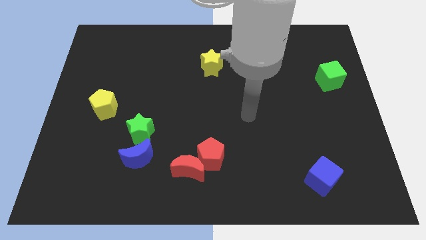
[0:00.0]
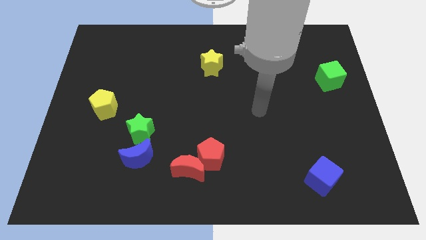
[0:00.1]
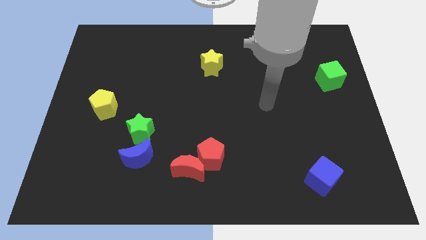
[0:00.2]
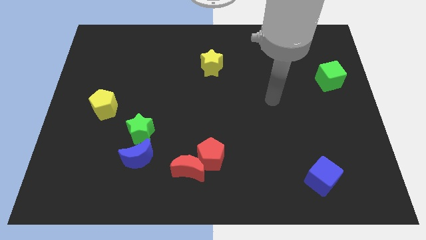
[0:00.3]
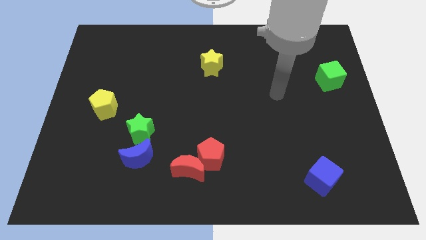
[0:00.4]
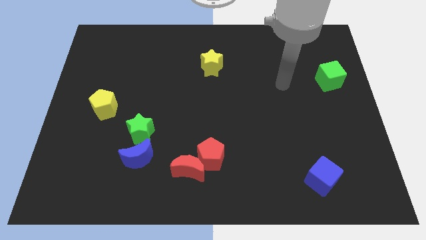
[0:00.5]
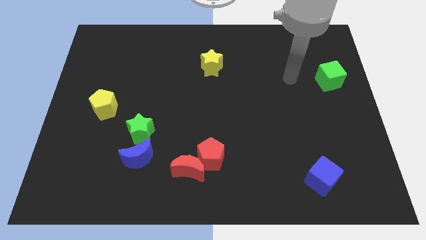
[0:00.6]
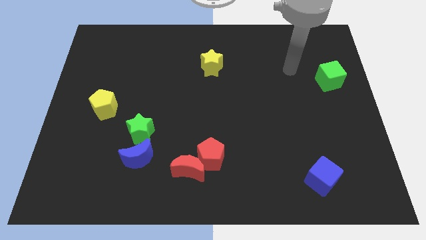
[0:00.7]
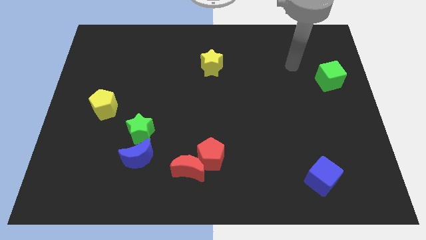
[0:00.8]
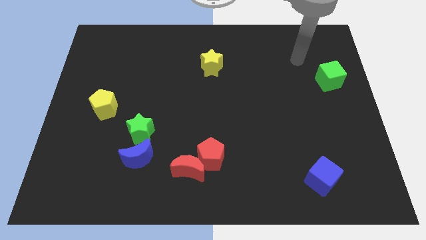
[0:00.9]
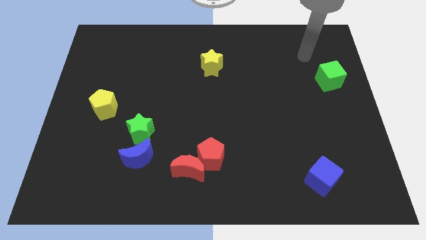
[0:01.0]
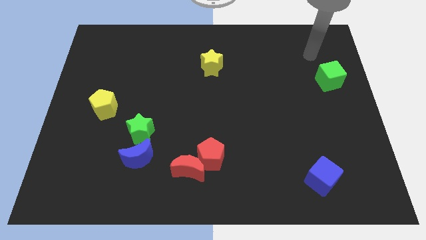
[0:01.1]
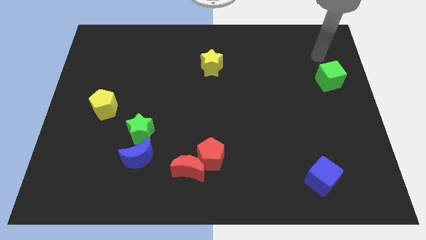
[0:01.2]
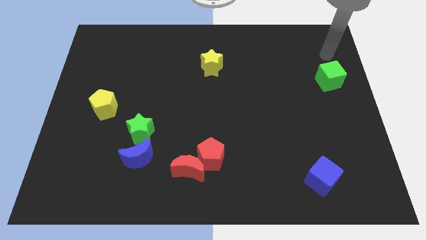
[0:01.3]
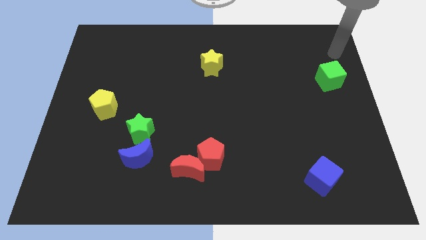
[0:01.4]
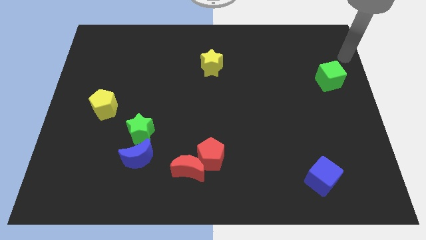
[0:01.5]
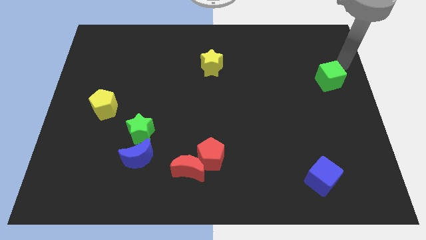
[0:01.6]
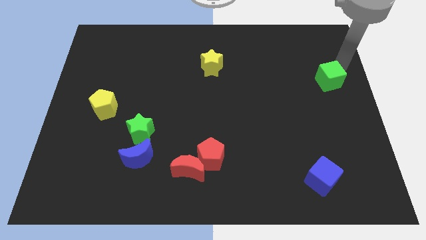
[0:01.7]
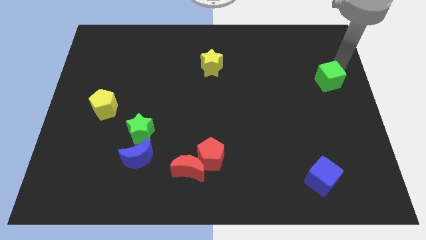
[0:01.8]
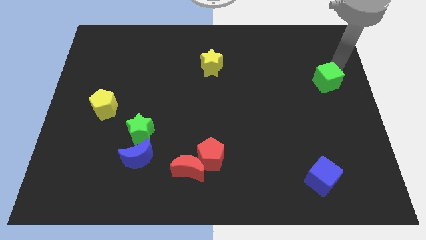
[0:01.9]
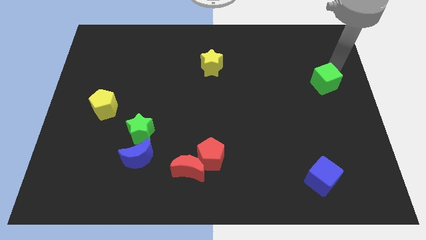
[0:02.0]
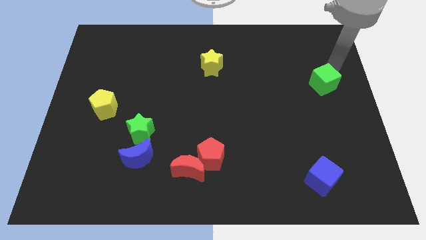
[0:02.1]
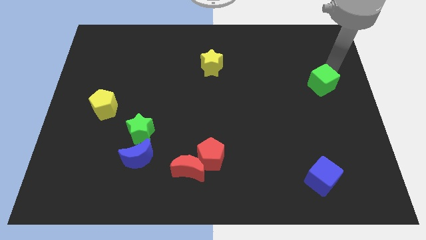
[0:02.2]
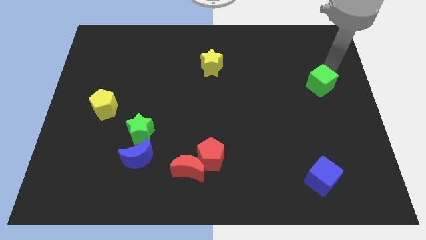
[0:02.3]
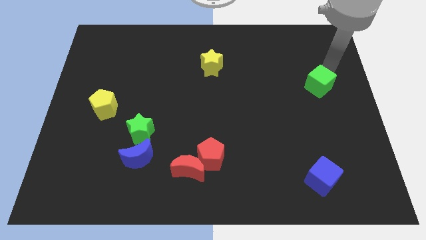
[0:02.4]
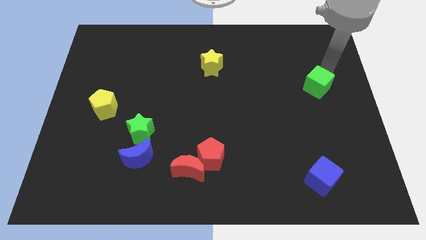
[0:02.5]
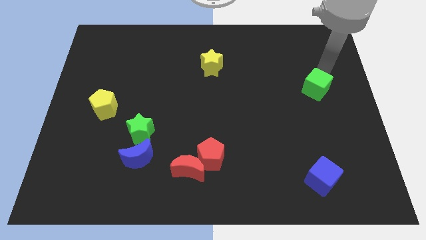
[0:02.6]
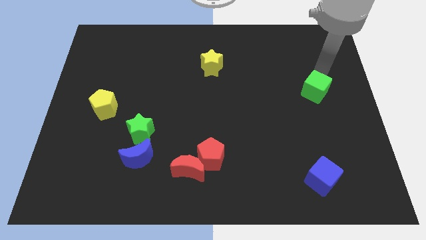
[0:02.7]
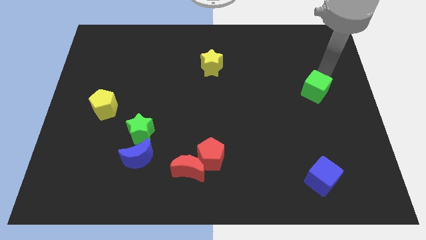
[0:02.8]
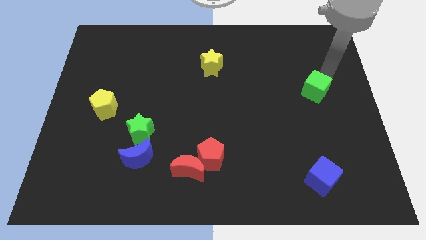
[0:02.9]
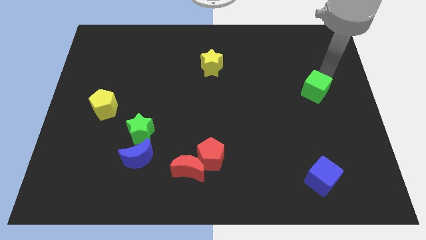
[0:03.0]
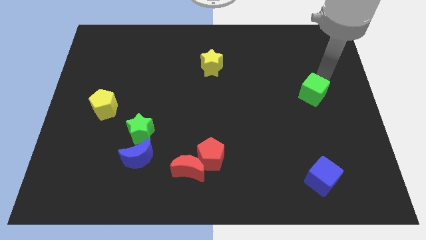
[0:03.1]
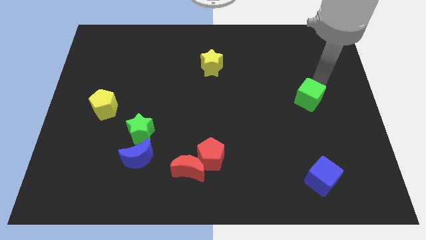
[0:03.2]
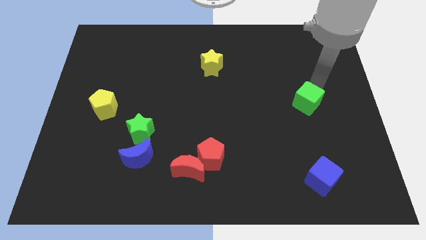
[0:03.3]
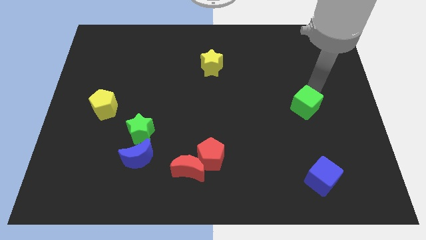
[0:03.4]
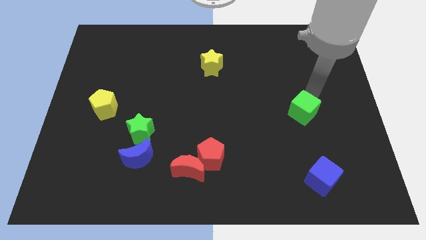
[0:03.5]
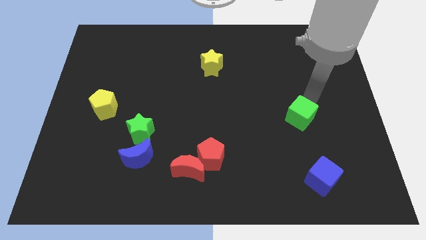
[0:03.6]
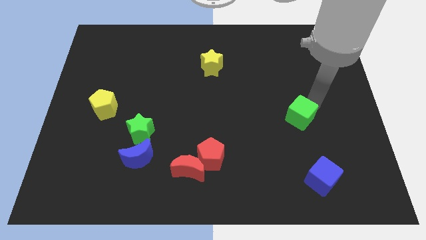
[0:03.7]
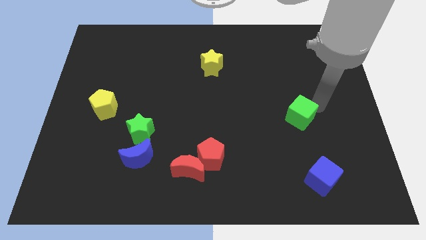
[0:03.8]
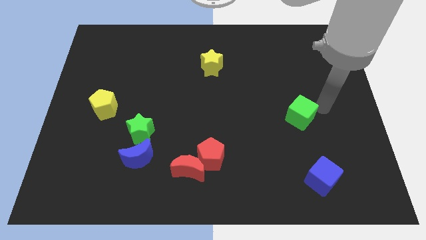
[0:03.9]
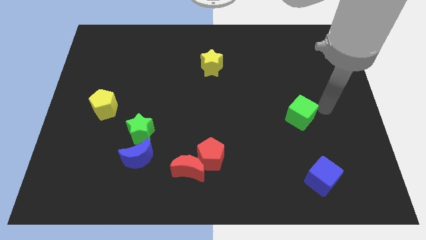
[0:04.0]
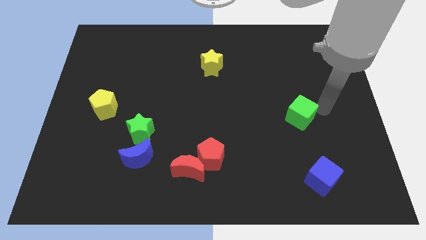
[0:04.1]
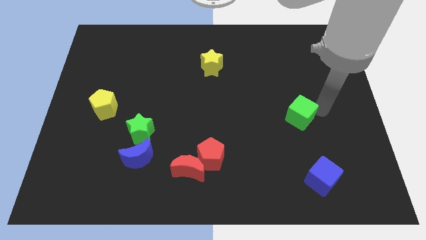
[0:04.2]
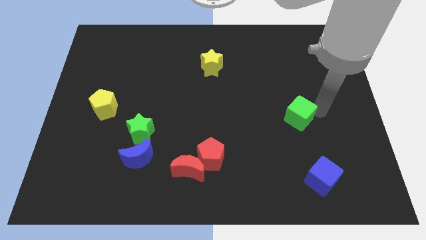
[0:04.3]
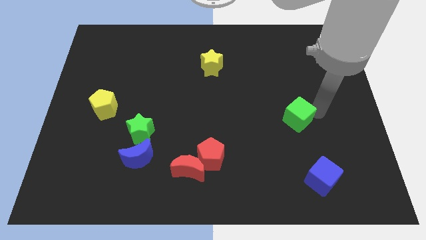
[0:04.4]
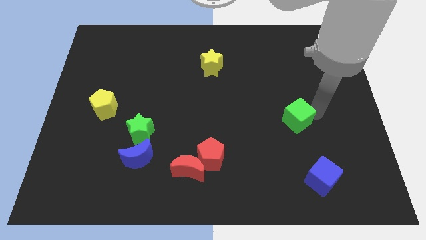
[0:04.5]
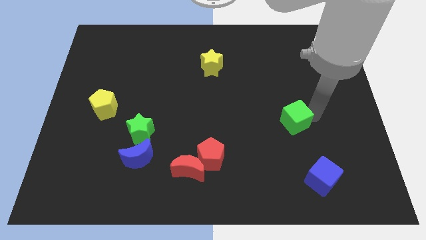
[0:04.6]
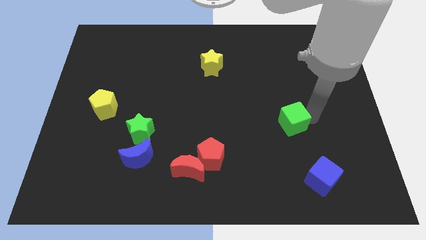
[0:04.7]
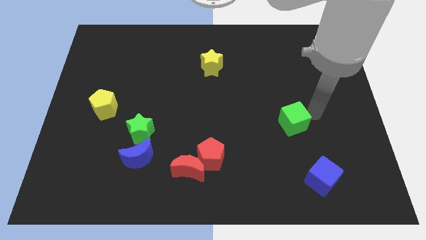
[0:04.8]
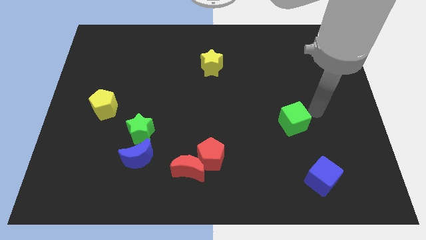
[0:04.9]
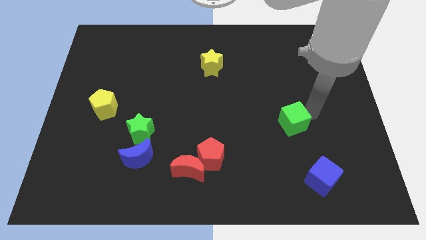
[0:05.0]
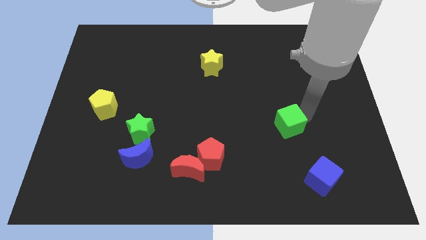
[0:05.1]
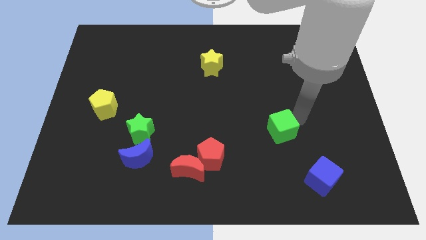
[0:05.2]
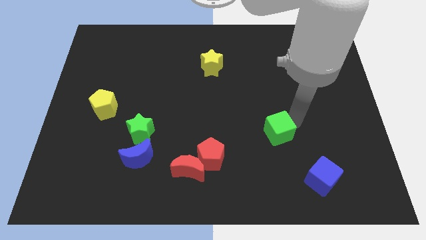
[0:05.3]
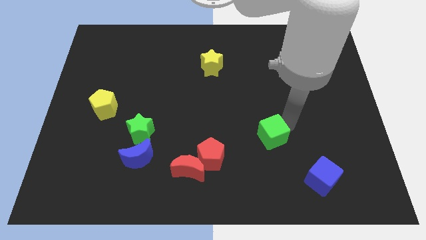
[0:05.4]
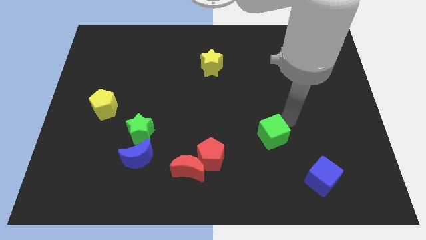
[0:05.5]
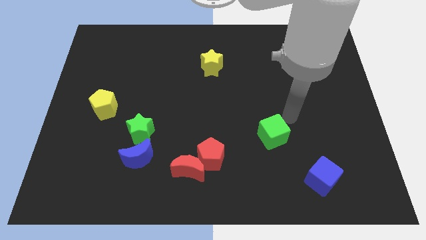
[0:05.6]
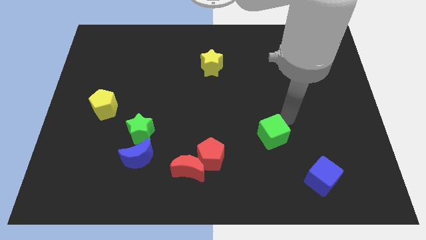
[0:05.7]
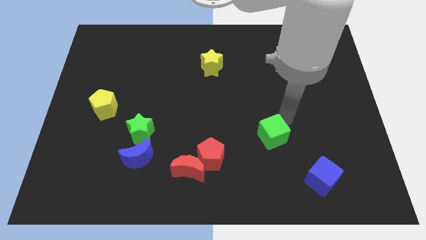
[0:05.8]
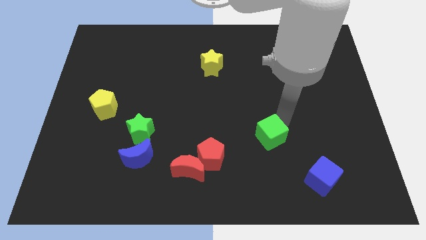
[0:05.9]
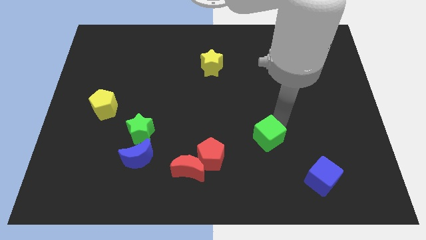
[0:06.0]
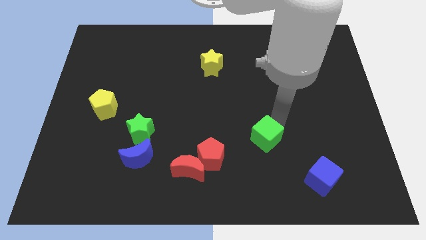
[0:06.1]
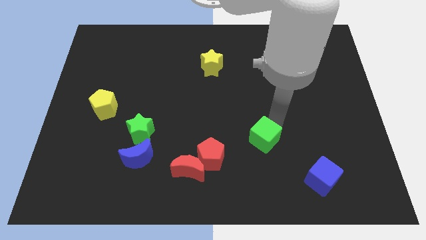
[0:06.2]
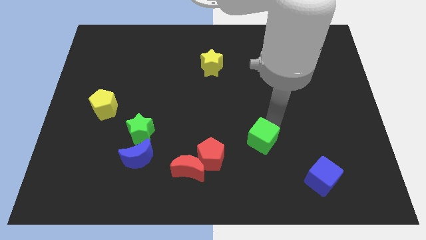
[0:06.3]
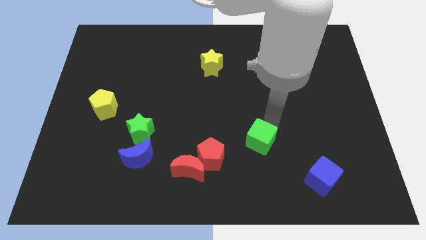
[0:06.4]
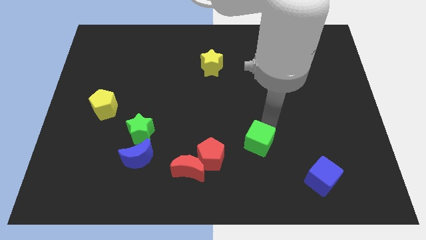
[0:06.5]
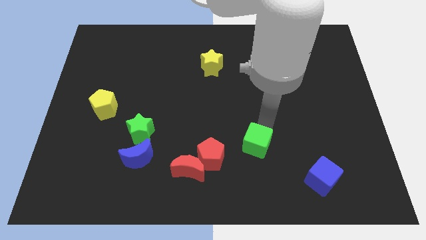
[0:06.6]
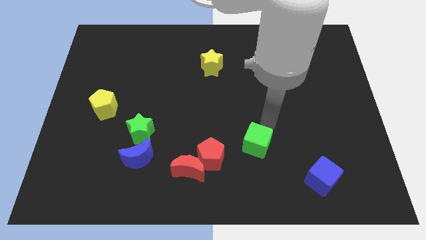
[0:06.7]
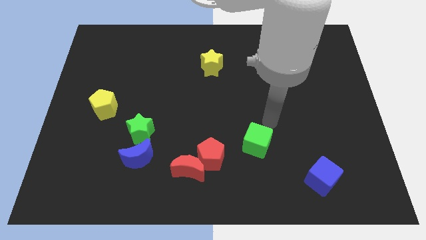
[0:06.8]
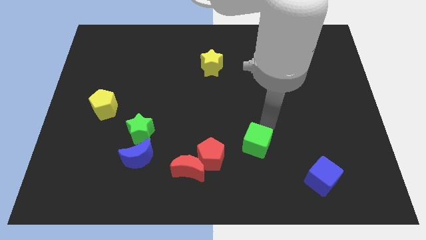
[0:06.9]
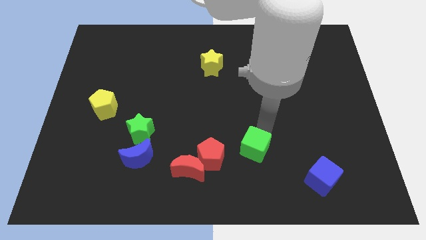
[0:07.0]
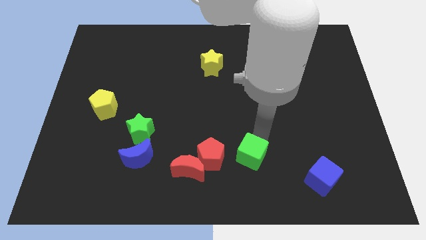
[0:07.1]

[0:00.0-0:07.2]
push the green cube to the right side of the red moon
